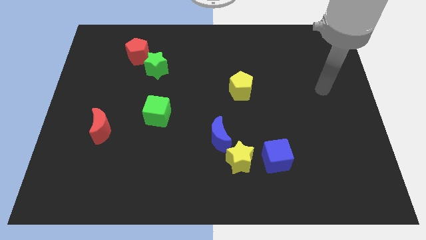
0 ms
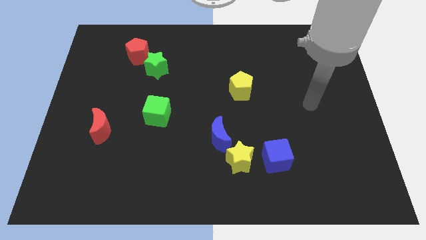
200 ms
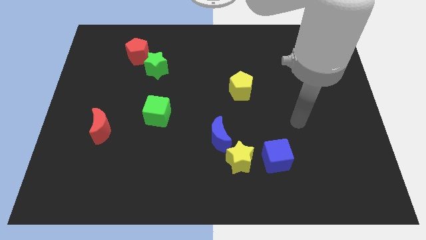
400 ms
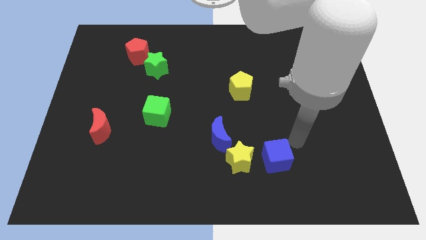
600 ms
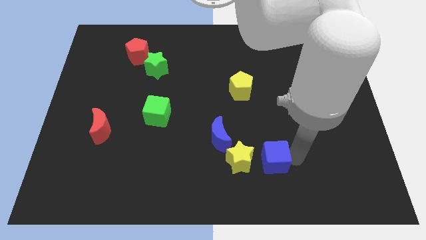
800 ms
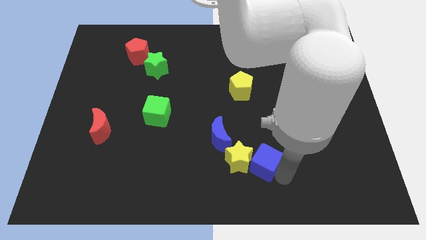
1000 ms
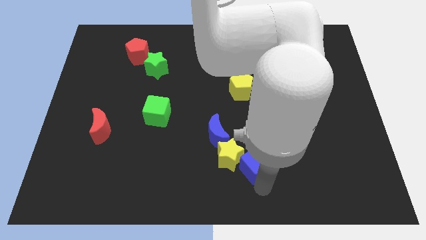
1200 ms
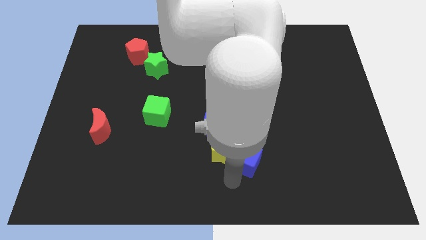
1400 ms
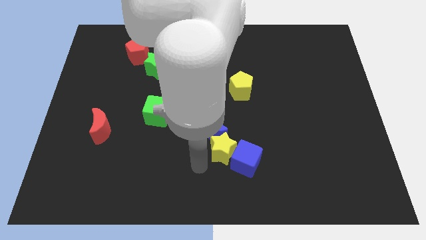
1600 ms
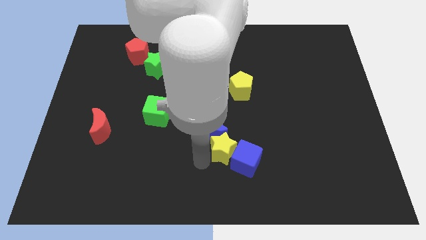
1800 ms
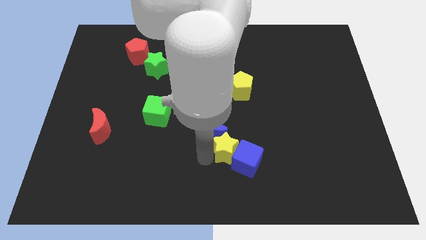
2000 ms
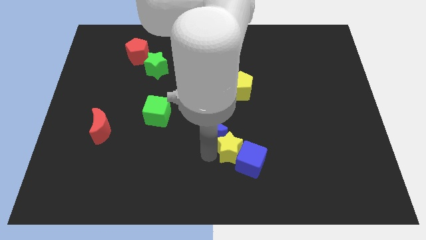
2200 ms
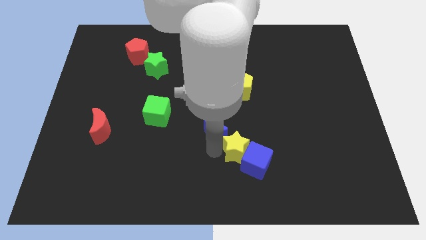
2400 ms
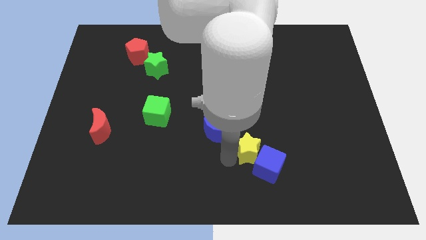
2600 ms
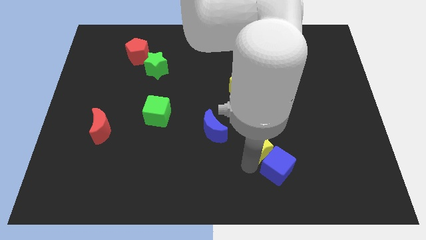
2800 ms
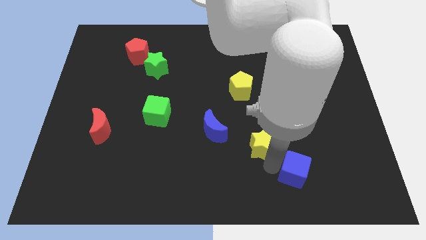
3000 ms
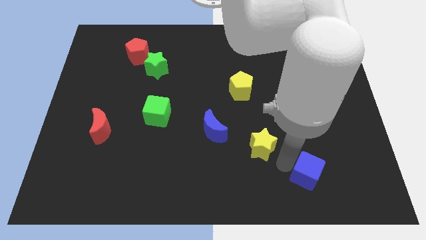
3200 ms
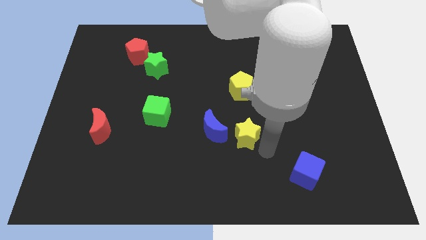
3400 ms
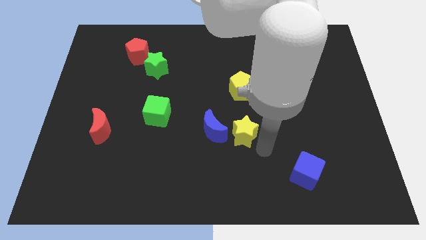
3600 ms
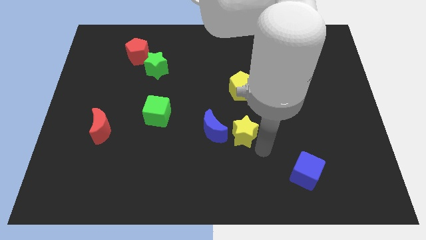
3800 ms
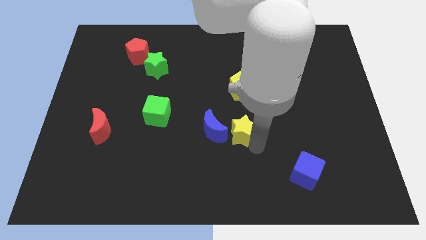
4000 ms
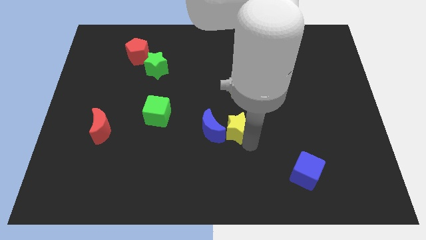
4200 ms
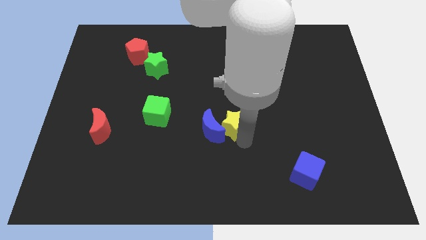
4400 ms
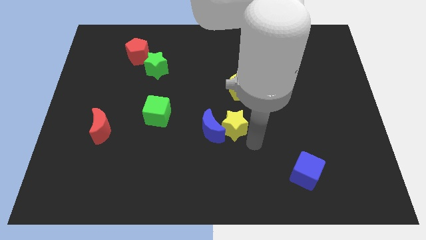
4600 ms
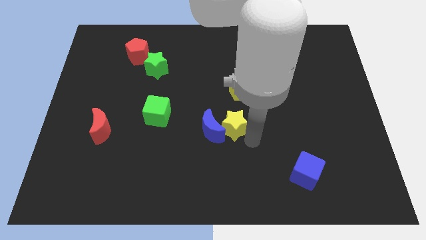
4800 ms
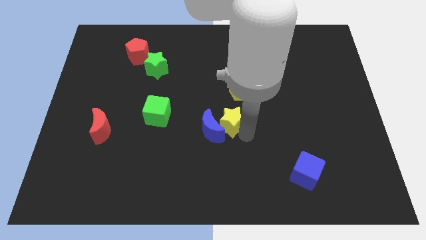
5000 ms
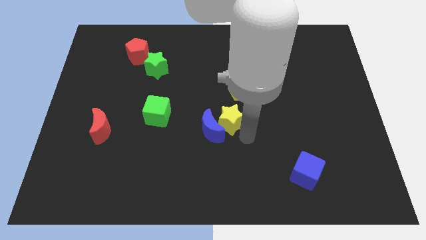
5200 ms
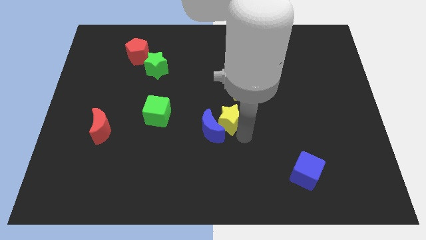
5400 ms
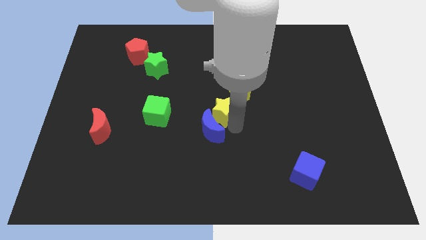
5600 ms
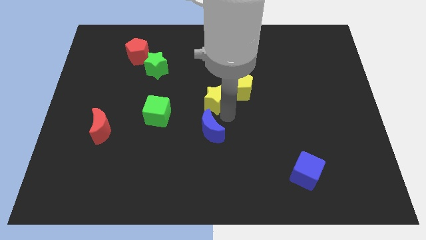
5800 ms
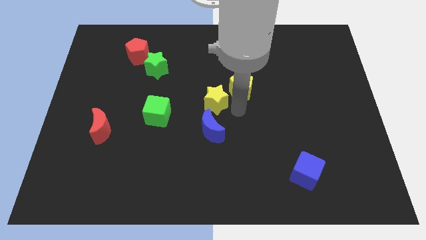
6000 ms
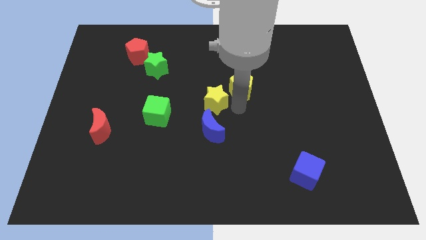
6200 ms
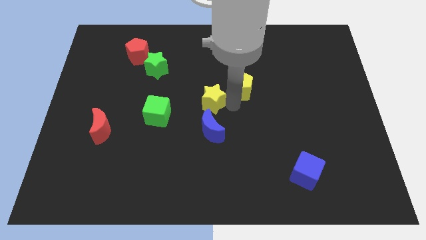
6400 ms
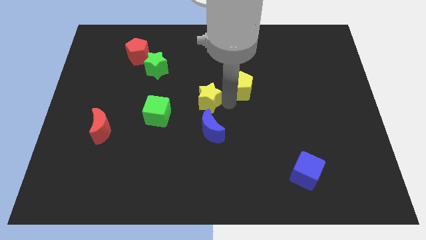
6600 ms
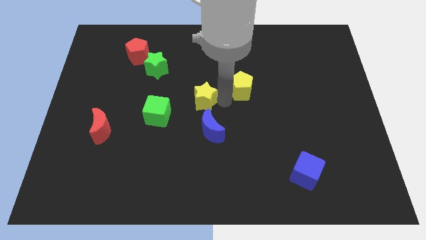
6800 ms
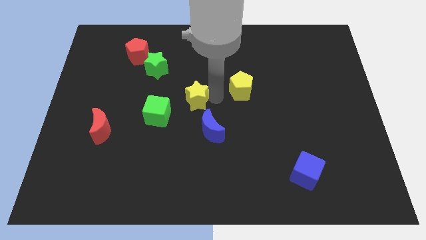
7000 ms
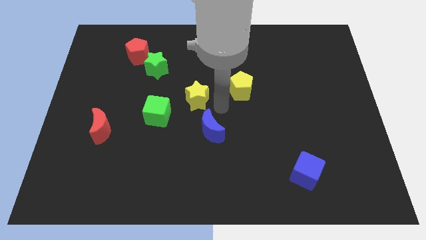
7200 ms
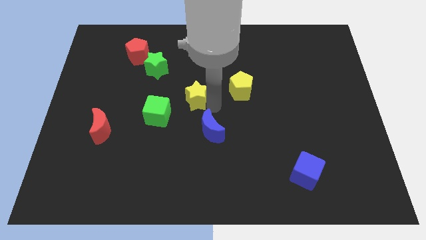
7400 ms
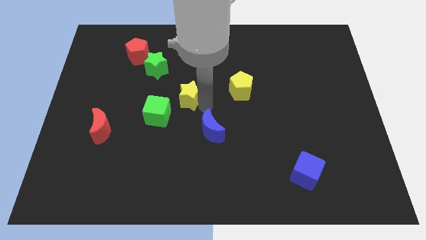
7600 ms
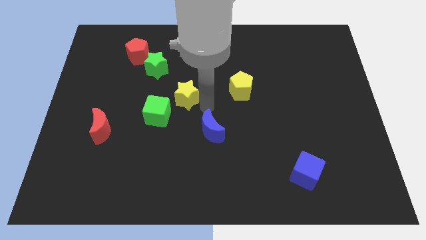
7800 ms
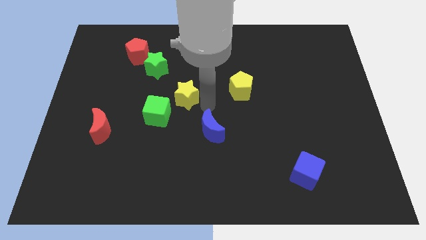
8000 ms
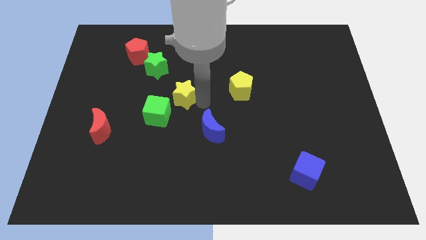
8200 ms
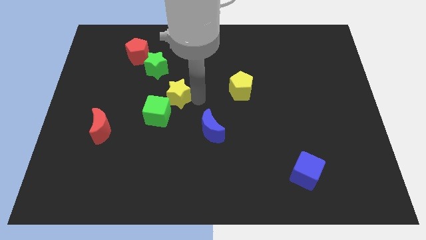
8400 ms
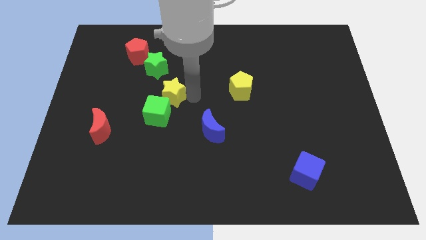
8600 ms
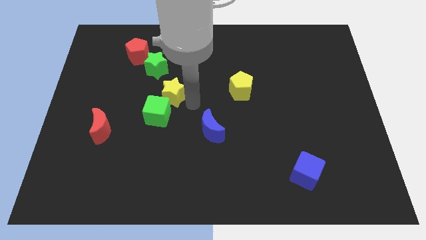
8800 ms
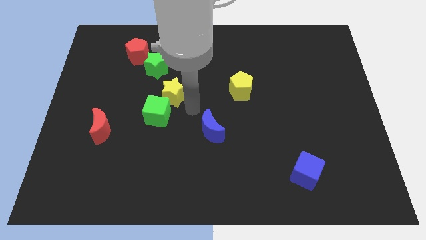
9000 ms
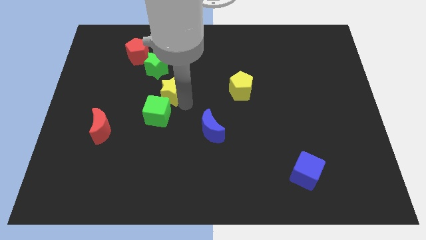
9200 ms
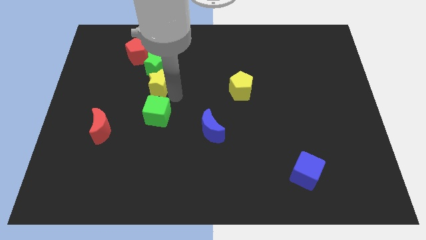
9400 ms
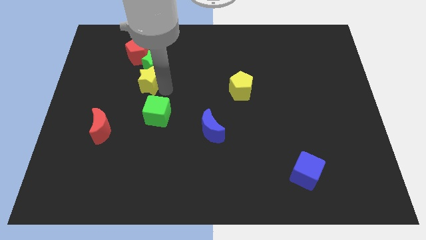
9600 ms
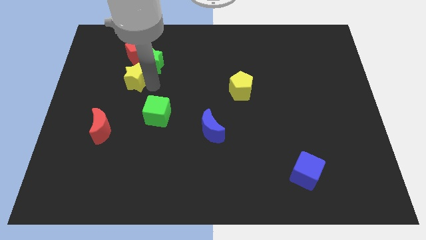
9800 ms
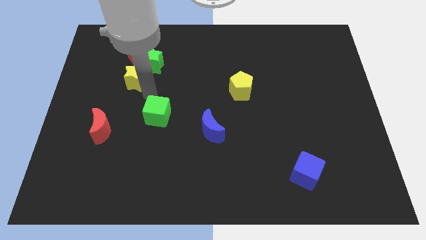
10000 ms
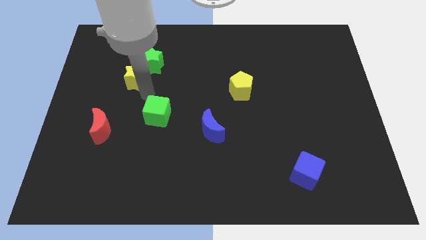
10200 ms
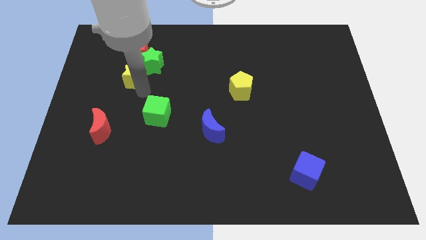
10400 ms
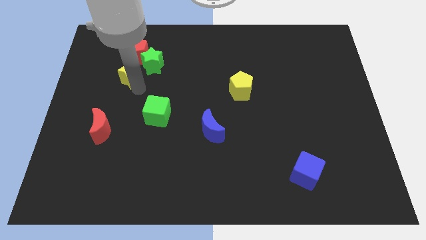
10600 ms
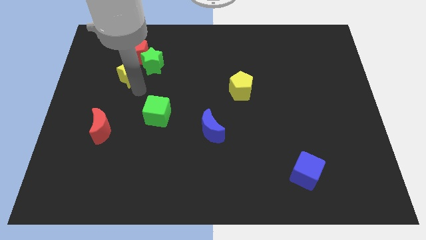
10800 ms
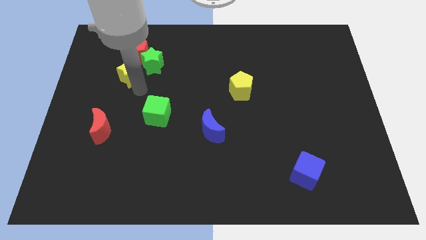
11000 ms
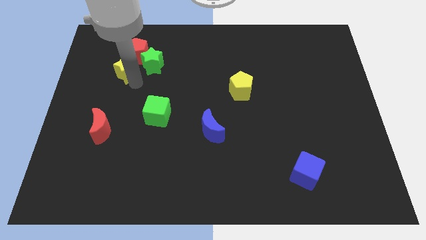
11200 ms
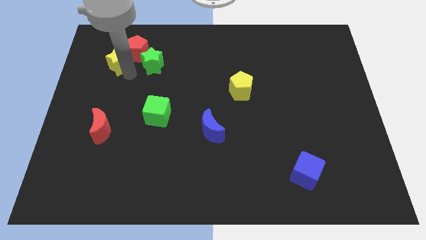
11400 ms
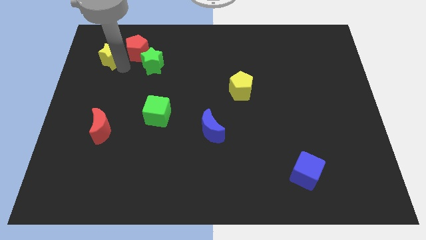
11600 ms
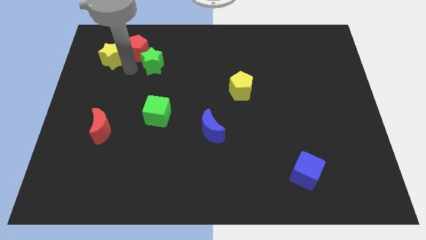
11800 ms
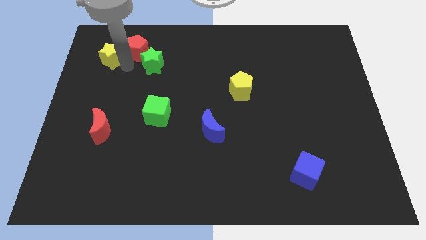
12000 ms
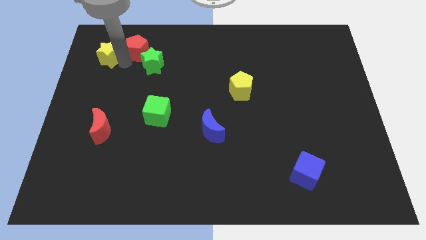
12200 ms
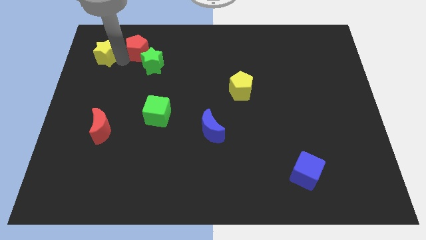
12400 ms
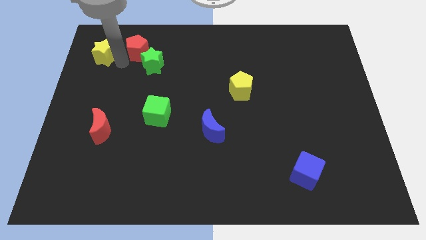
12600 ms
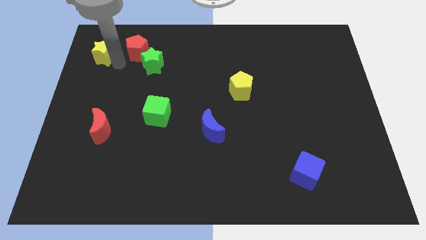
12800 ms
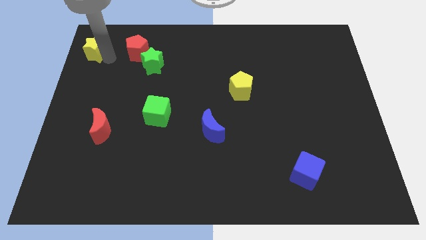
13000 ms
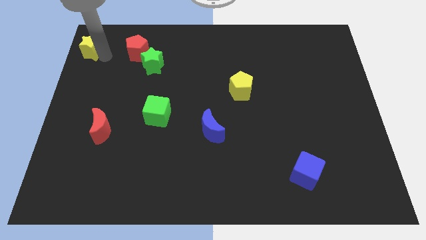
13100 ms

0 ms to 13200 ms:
slide the yellow star to the upper left corner
